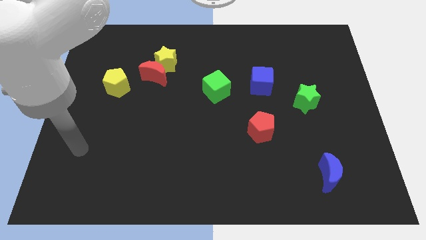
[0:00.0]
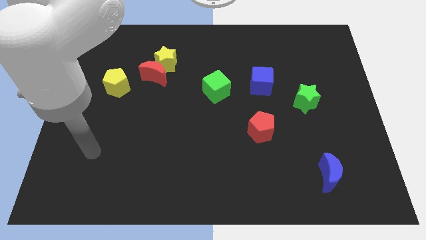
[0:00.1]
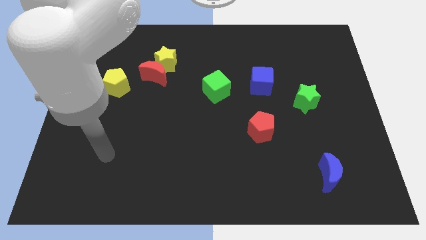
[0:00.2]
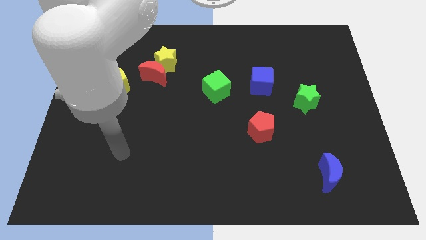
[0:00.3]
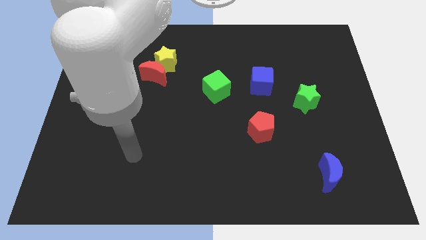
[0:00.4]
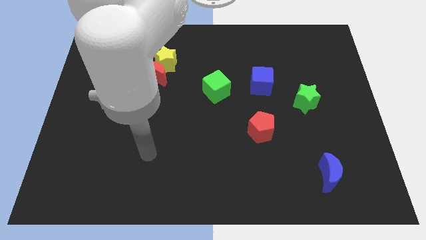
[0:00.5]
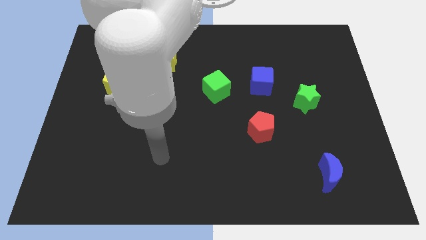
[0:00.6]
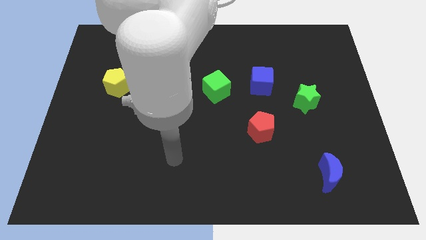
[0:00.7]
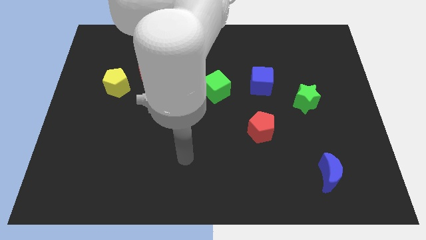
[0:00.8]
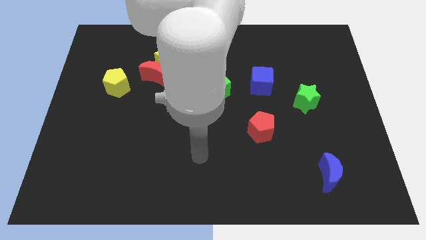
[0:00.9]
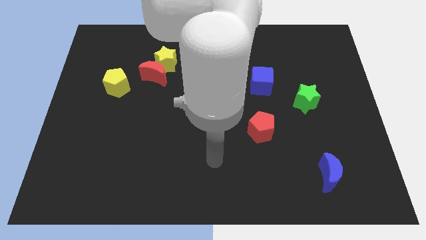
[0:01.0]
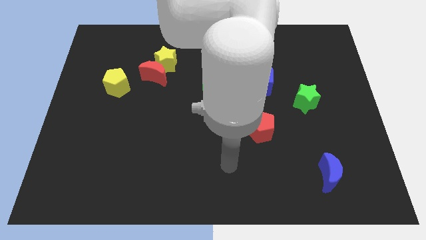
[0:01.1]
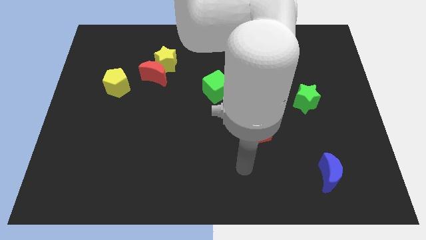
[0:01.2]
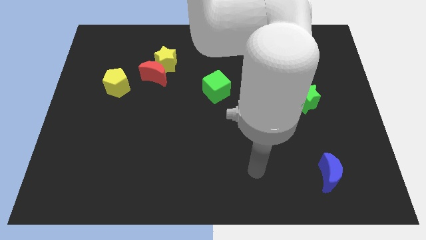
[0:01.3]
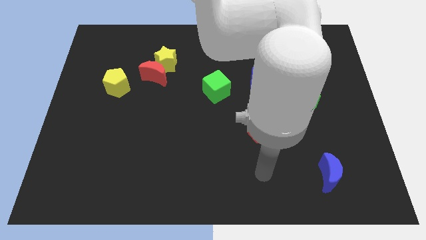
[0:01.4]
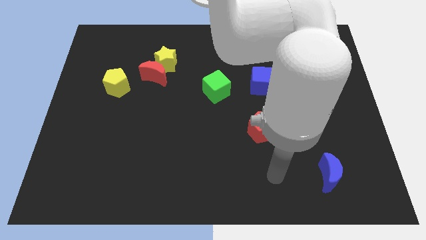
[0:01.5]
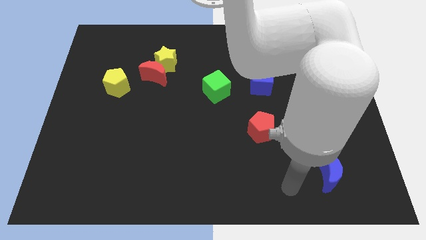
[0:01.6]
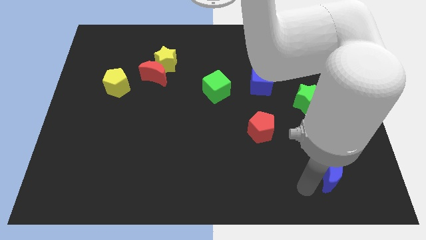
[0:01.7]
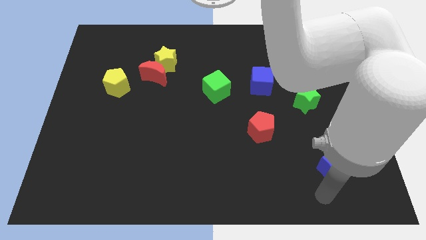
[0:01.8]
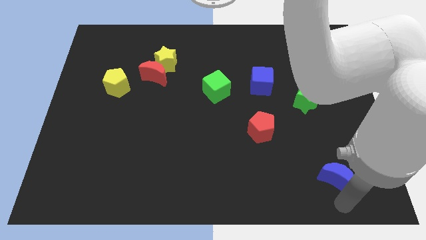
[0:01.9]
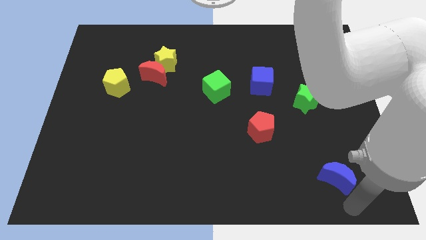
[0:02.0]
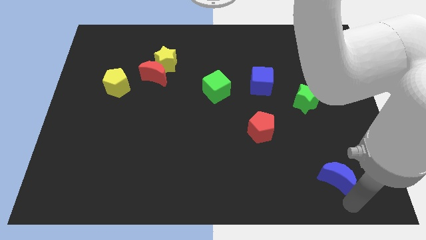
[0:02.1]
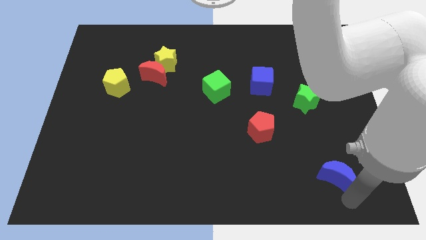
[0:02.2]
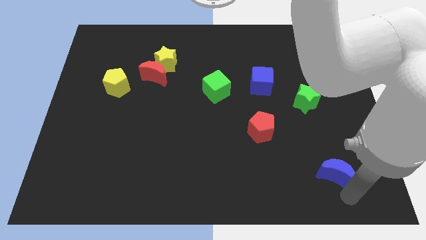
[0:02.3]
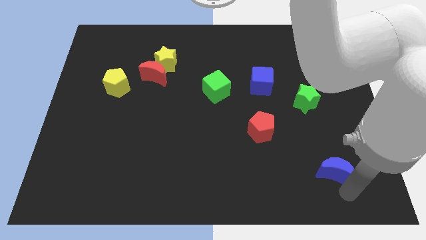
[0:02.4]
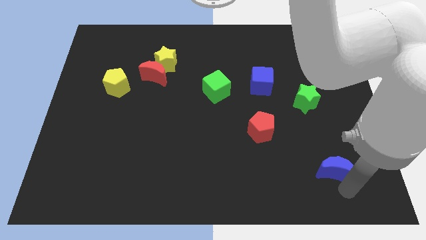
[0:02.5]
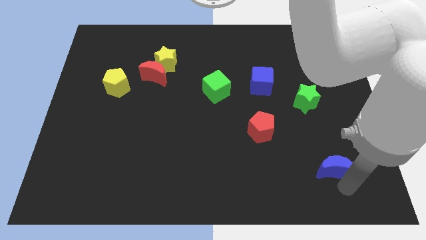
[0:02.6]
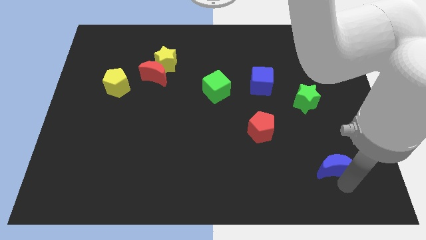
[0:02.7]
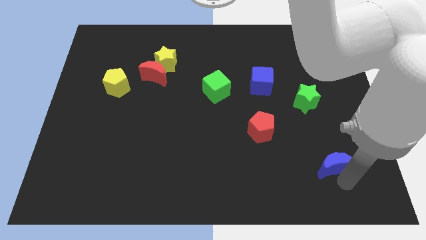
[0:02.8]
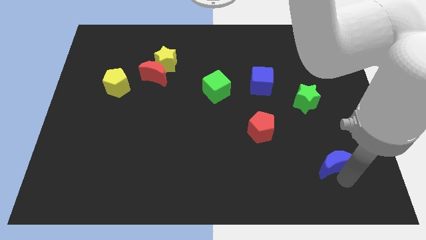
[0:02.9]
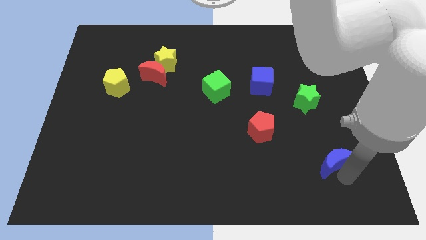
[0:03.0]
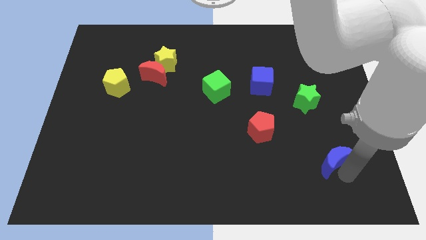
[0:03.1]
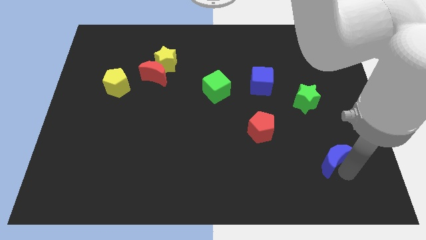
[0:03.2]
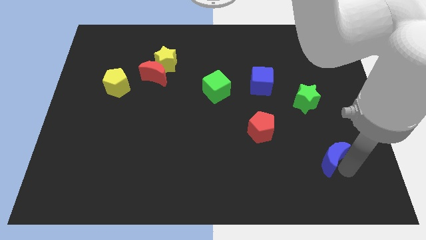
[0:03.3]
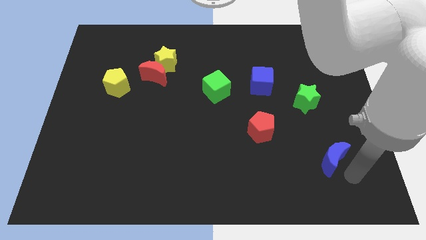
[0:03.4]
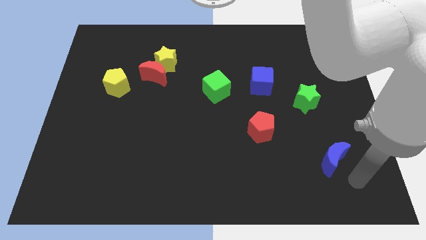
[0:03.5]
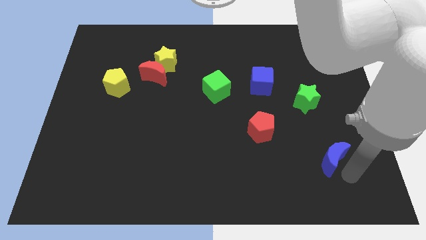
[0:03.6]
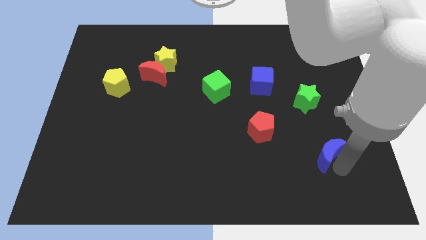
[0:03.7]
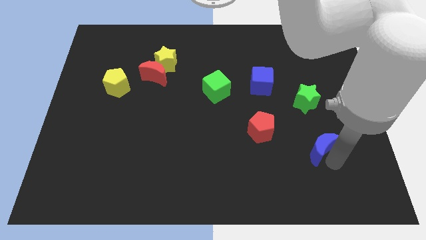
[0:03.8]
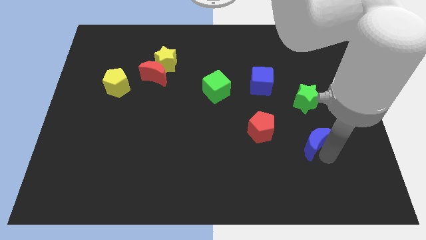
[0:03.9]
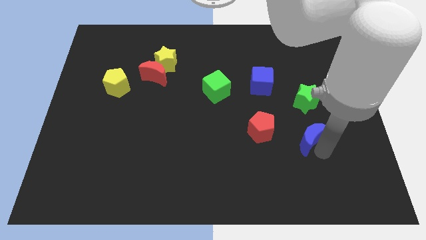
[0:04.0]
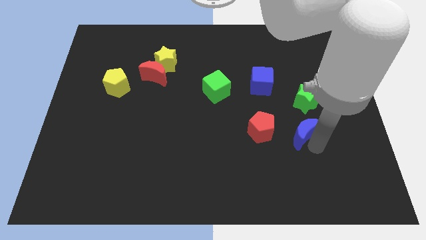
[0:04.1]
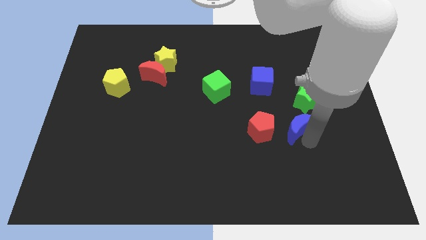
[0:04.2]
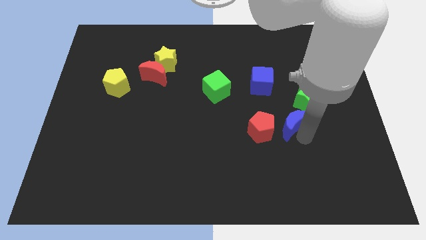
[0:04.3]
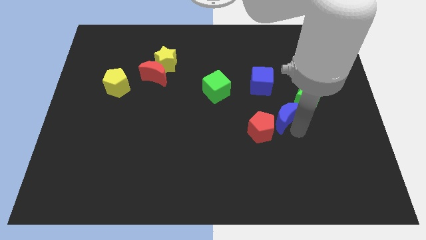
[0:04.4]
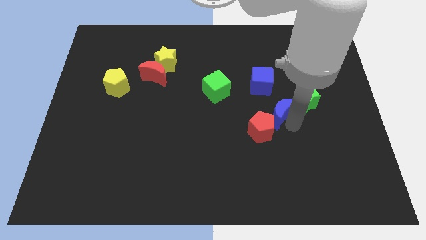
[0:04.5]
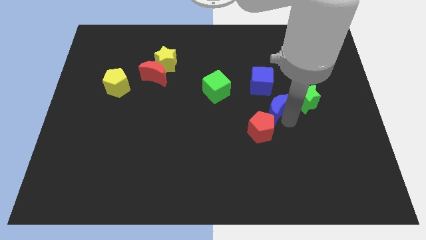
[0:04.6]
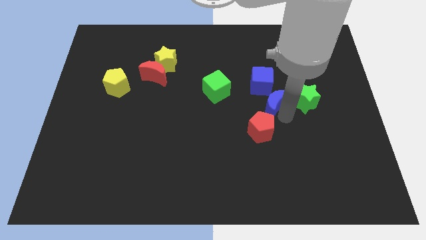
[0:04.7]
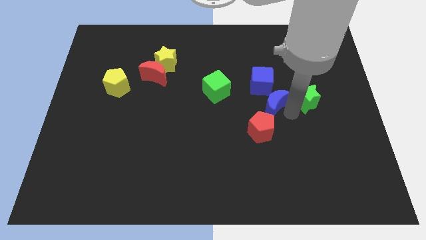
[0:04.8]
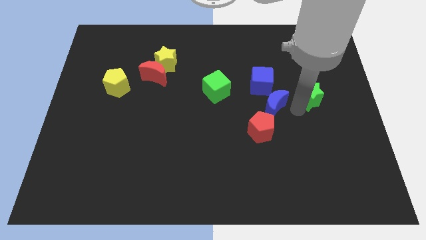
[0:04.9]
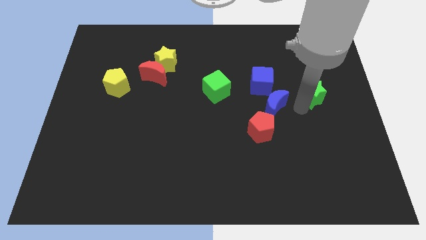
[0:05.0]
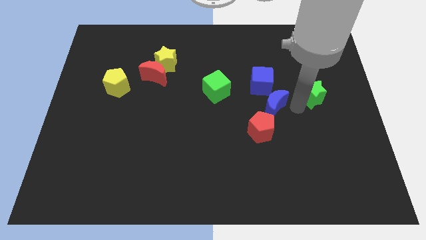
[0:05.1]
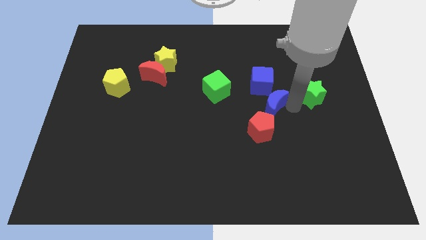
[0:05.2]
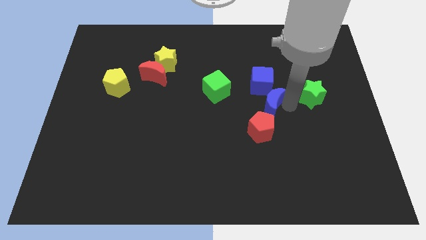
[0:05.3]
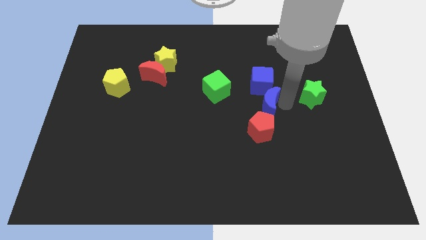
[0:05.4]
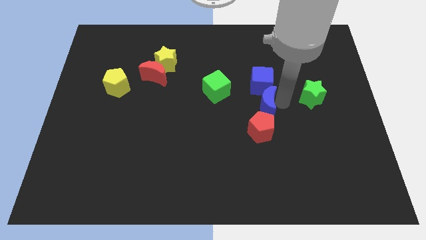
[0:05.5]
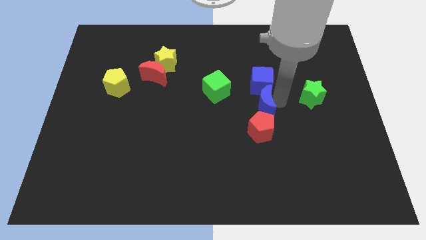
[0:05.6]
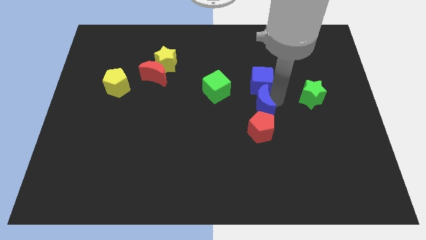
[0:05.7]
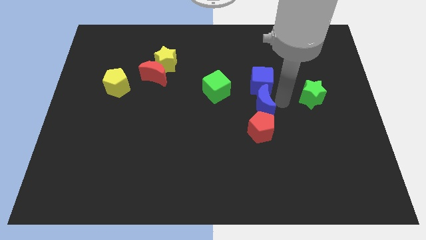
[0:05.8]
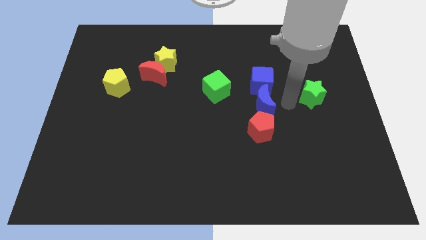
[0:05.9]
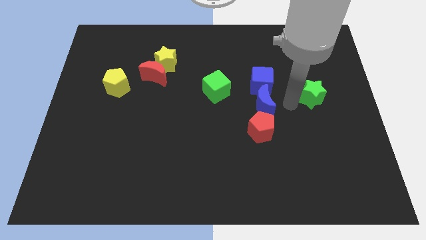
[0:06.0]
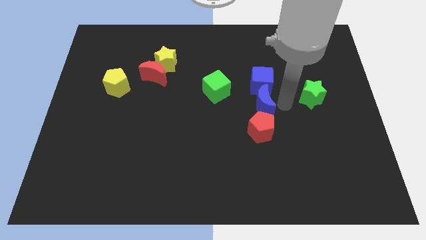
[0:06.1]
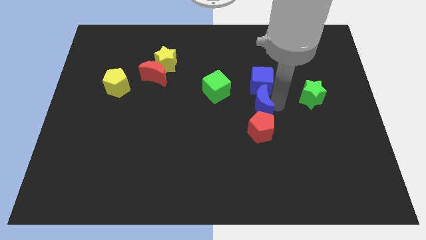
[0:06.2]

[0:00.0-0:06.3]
push the blue moon diagonally down and to the right of the green cube
